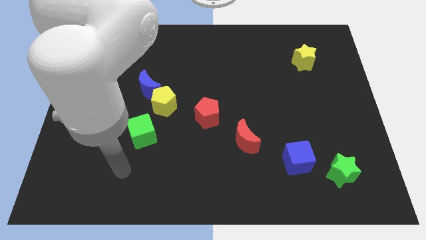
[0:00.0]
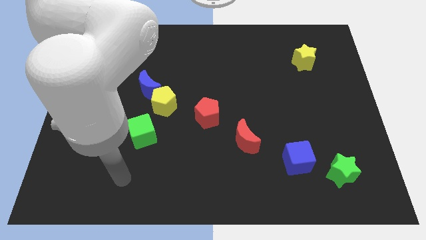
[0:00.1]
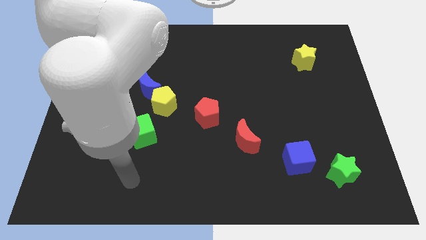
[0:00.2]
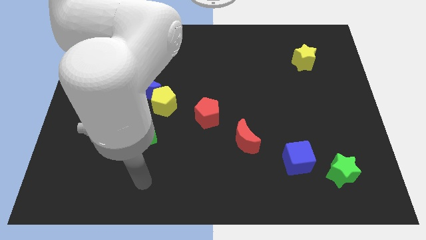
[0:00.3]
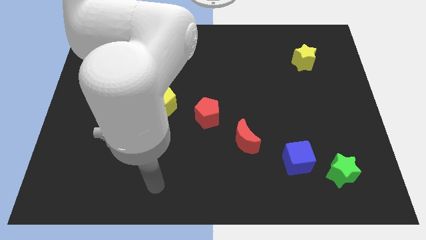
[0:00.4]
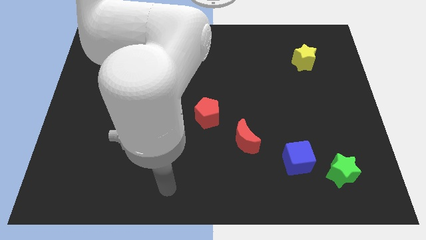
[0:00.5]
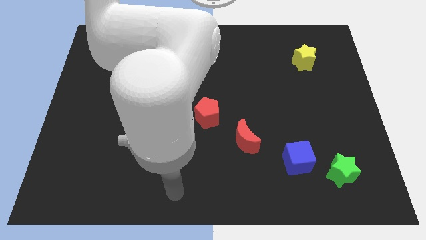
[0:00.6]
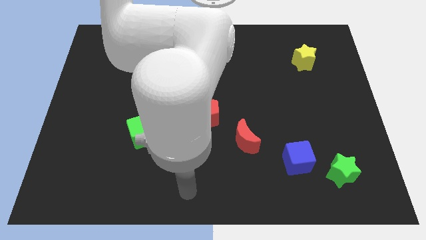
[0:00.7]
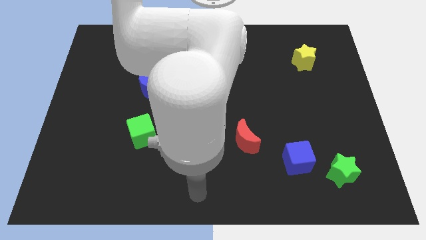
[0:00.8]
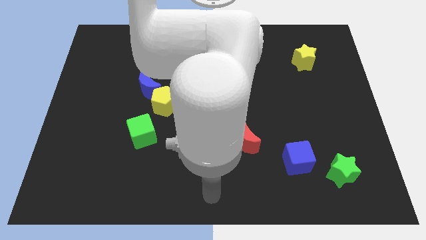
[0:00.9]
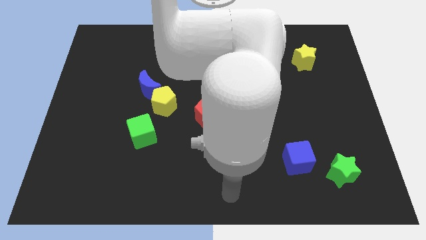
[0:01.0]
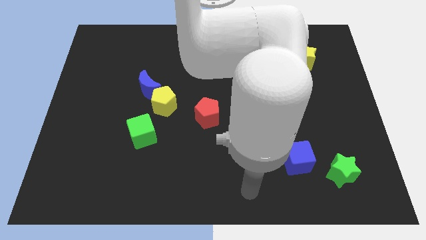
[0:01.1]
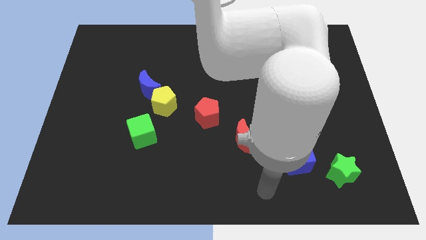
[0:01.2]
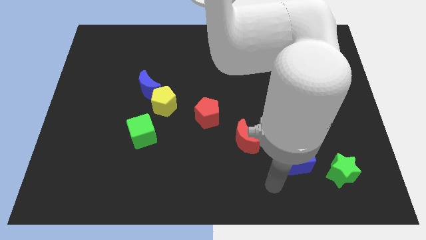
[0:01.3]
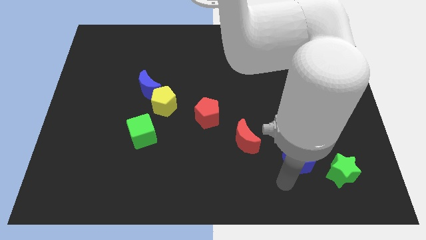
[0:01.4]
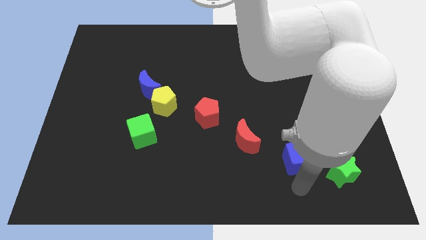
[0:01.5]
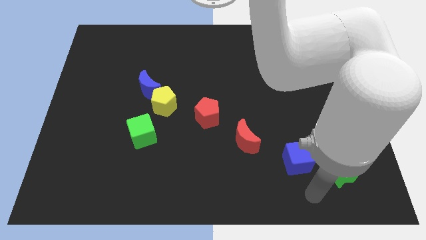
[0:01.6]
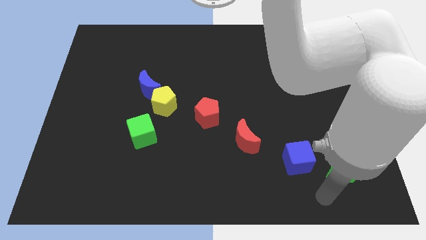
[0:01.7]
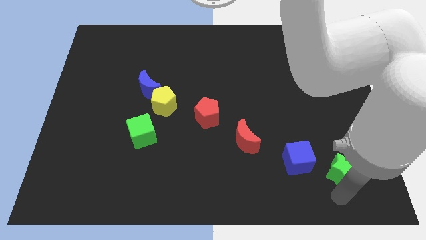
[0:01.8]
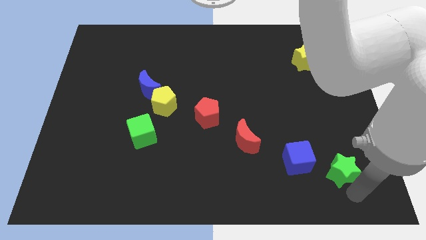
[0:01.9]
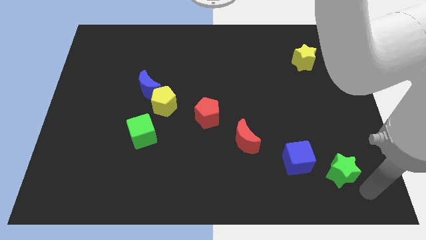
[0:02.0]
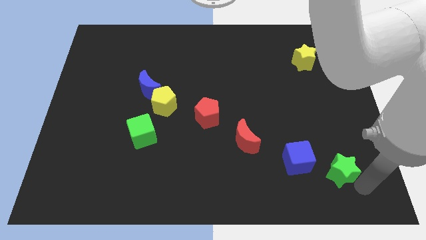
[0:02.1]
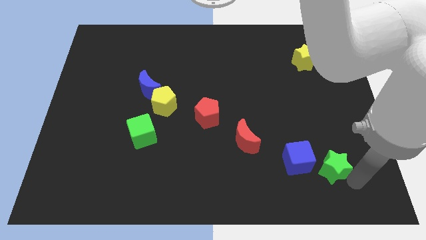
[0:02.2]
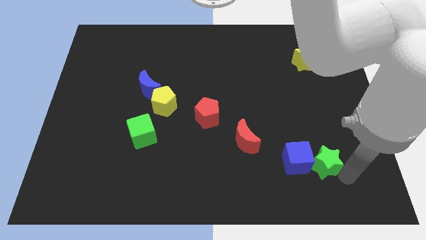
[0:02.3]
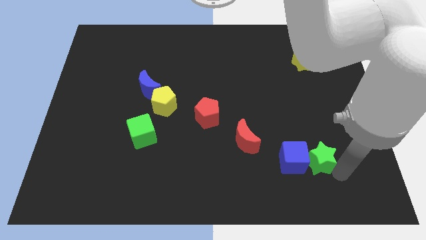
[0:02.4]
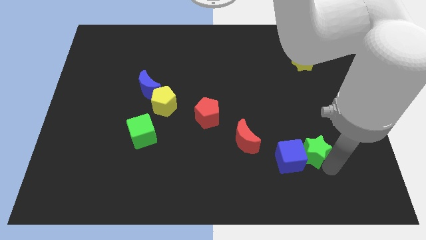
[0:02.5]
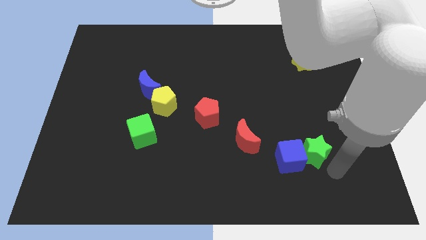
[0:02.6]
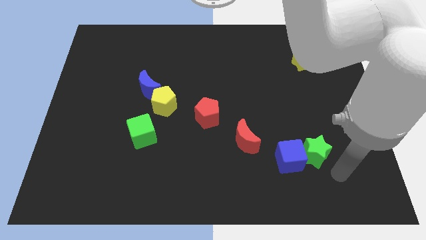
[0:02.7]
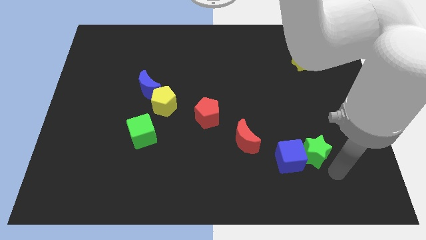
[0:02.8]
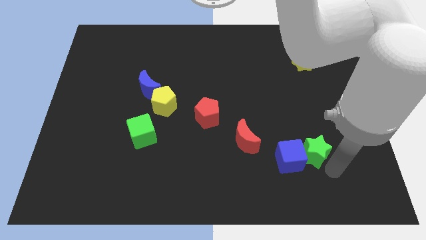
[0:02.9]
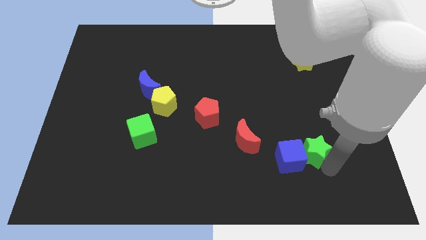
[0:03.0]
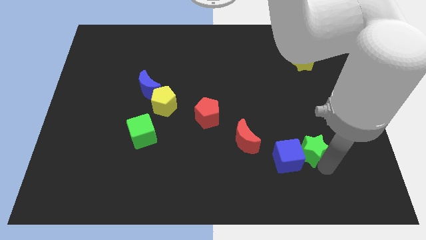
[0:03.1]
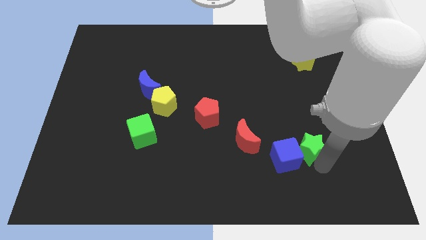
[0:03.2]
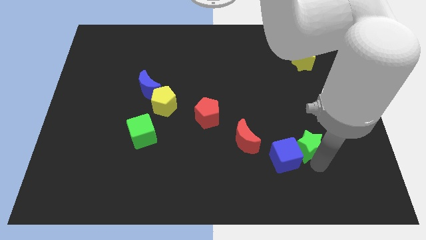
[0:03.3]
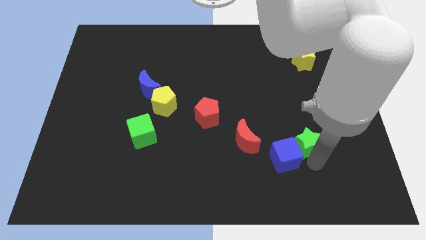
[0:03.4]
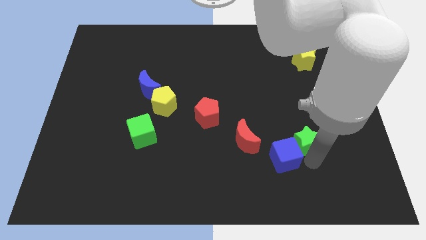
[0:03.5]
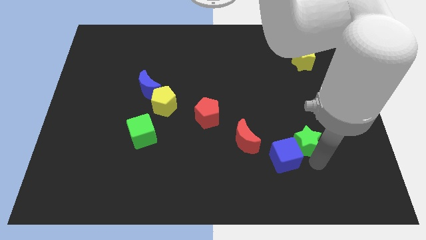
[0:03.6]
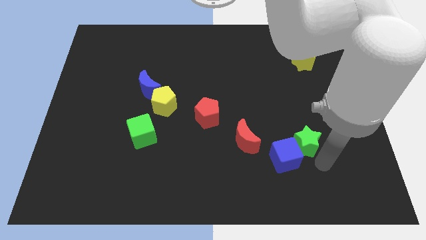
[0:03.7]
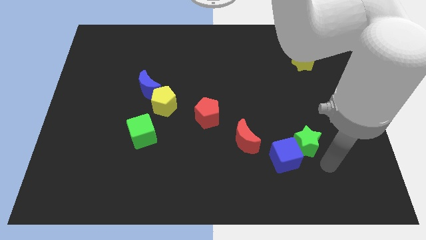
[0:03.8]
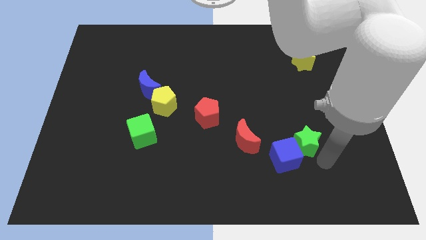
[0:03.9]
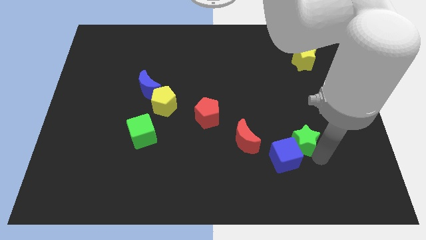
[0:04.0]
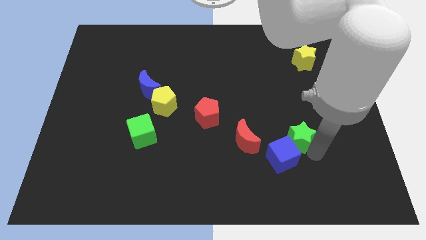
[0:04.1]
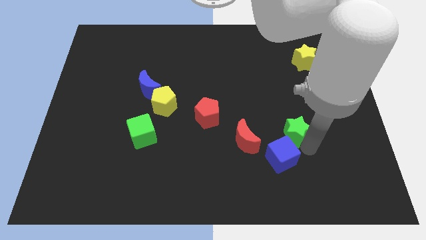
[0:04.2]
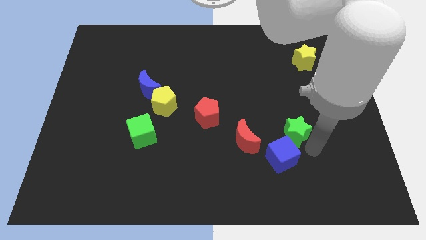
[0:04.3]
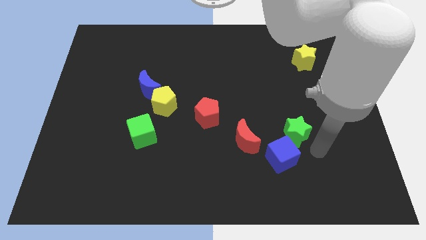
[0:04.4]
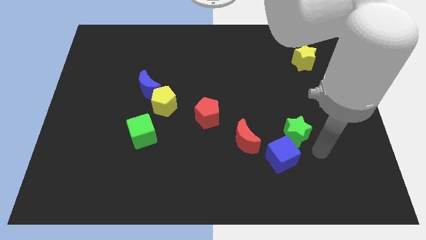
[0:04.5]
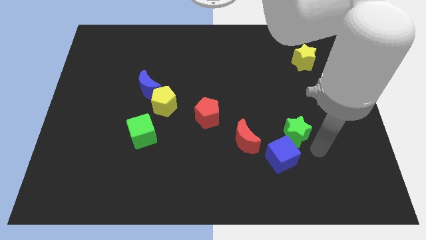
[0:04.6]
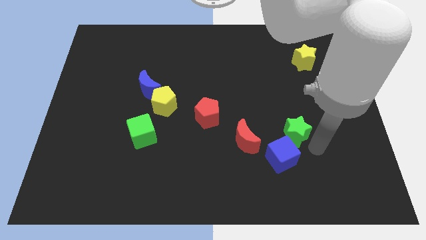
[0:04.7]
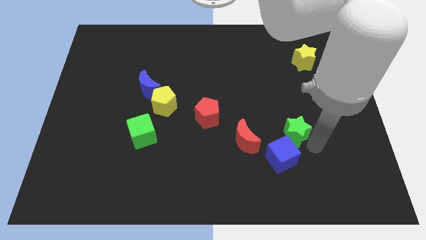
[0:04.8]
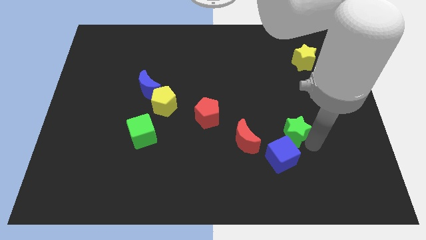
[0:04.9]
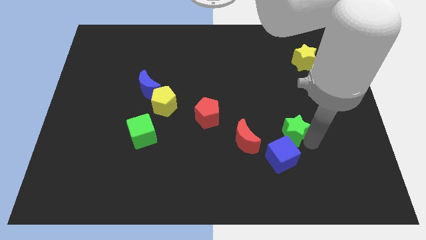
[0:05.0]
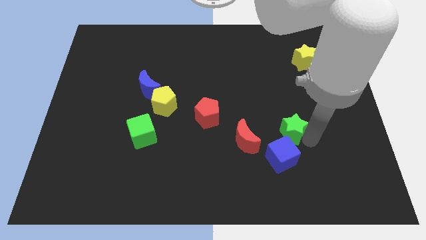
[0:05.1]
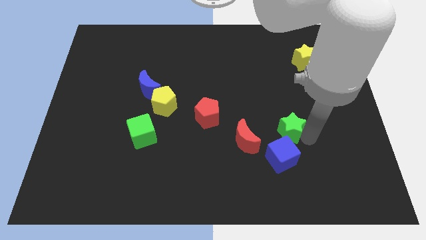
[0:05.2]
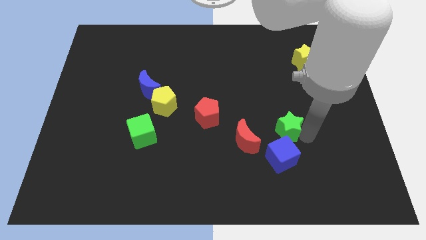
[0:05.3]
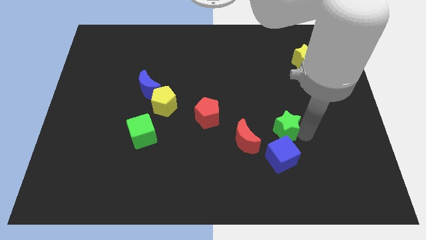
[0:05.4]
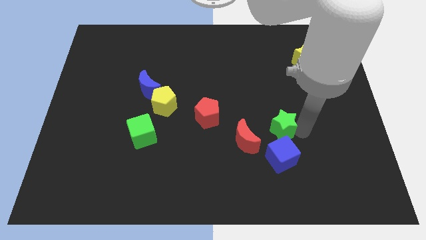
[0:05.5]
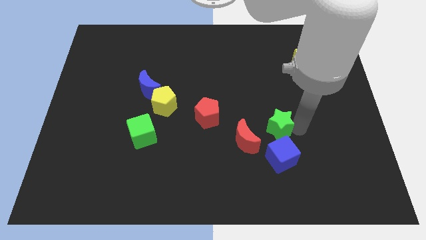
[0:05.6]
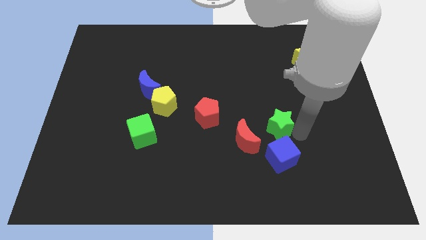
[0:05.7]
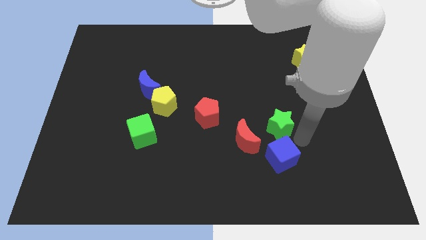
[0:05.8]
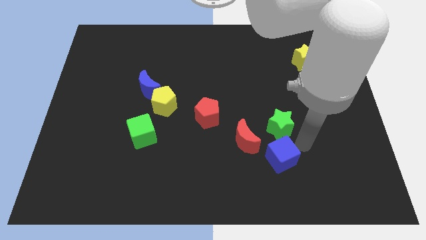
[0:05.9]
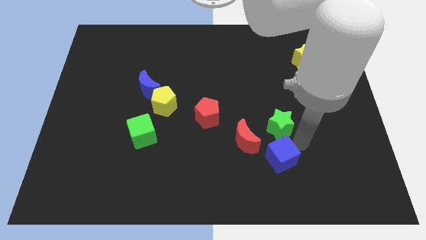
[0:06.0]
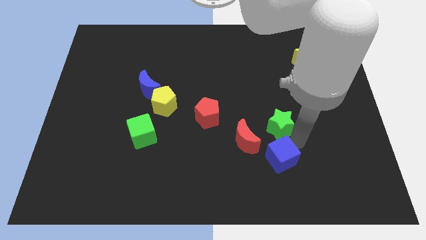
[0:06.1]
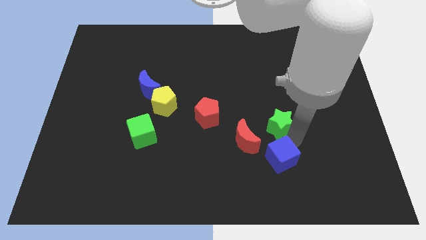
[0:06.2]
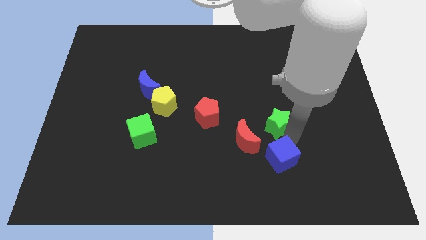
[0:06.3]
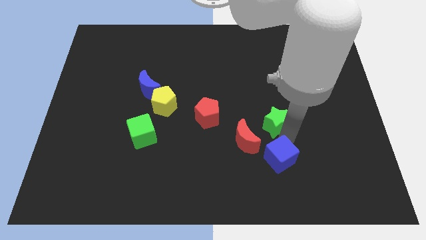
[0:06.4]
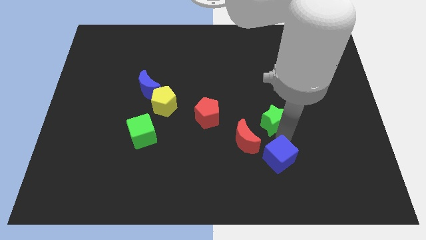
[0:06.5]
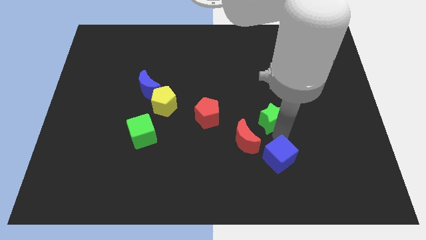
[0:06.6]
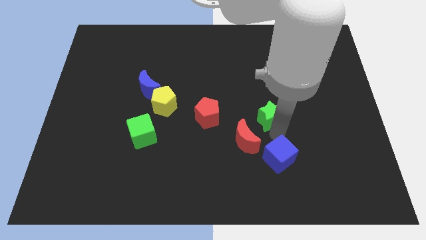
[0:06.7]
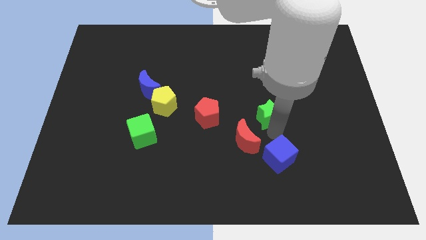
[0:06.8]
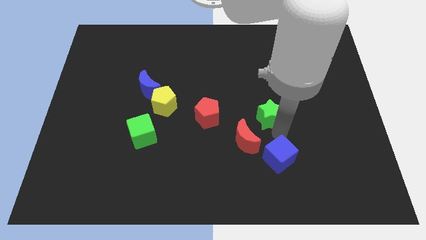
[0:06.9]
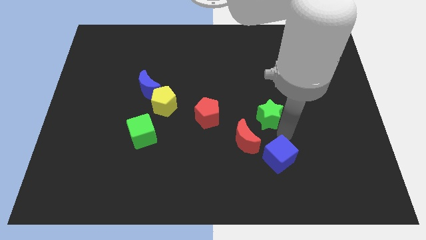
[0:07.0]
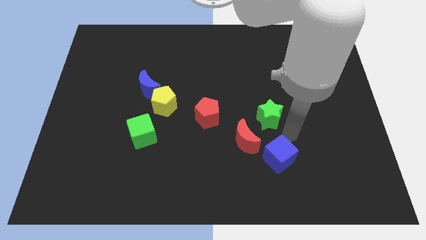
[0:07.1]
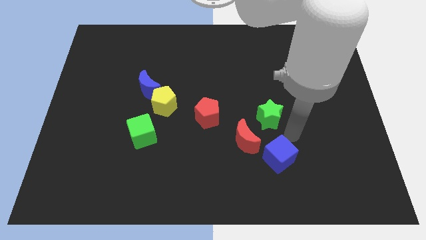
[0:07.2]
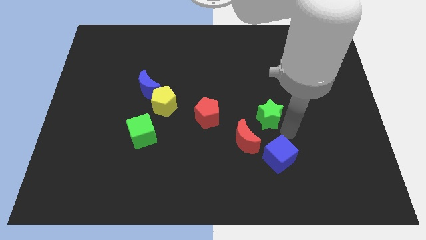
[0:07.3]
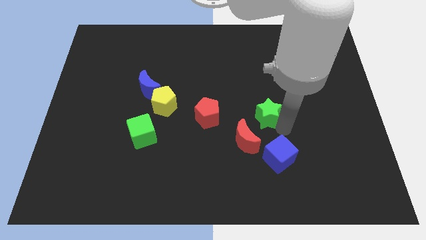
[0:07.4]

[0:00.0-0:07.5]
slide the green star diagonally upwards and left

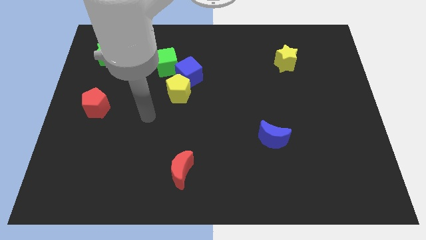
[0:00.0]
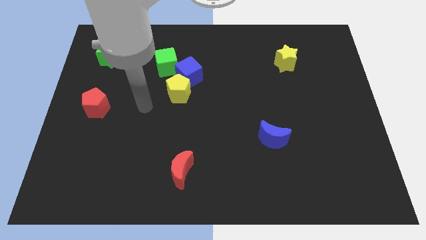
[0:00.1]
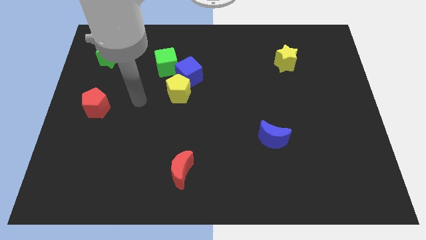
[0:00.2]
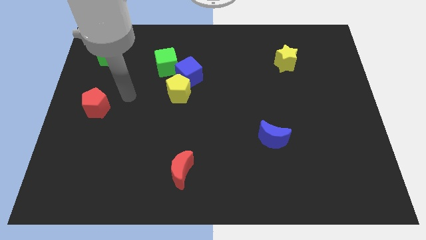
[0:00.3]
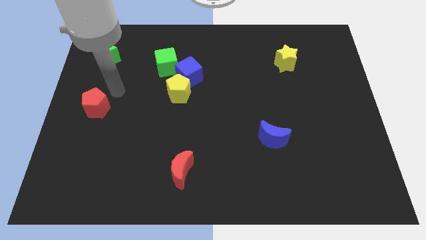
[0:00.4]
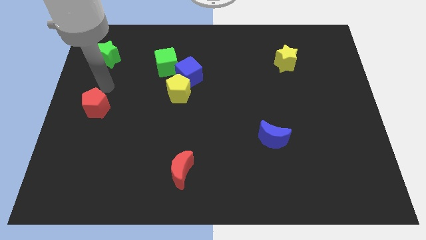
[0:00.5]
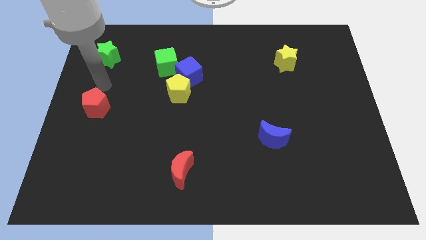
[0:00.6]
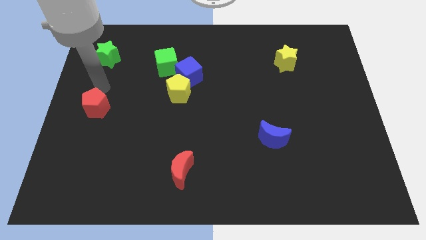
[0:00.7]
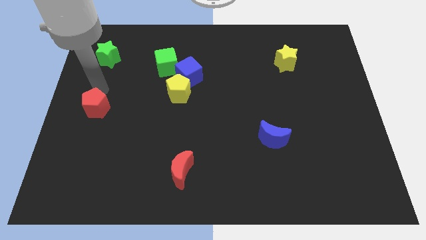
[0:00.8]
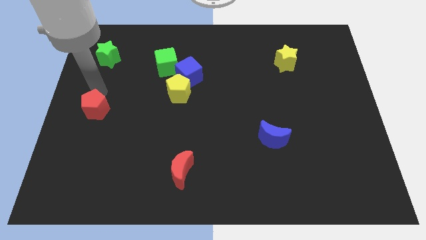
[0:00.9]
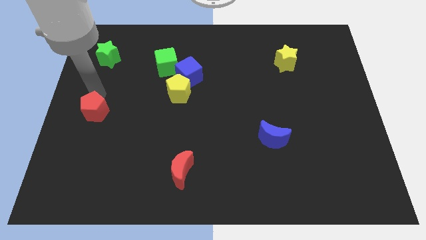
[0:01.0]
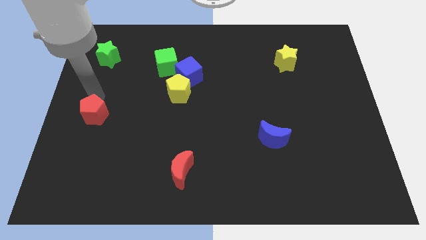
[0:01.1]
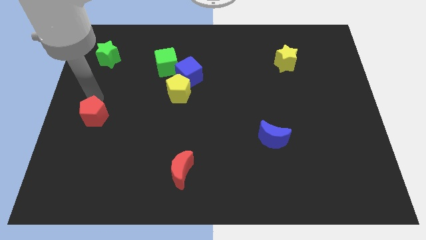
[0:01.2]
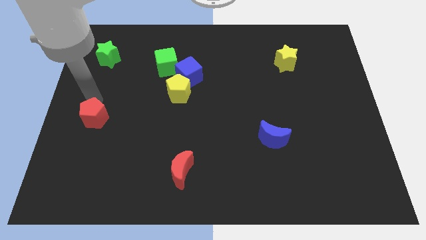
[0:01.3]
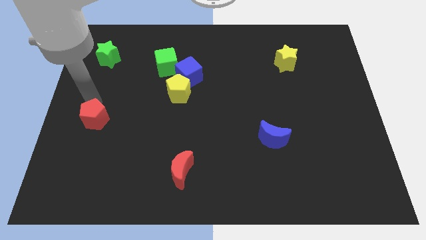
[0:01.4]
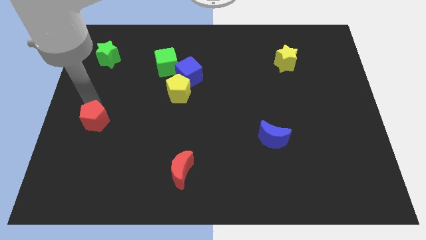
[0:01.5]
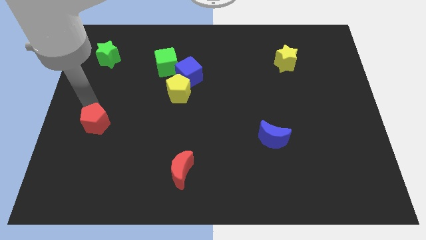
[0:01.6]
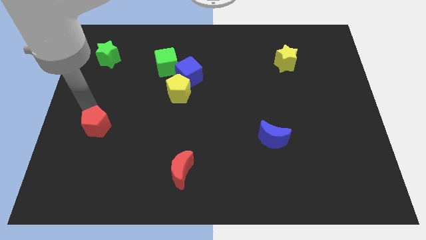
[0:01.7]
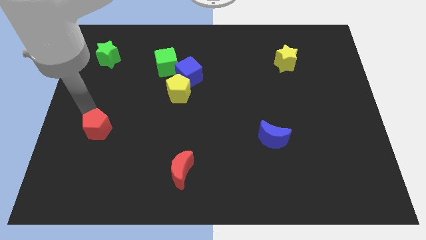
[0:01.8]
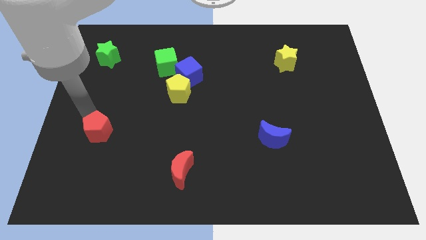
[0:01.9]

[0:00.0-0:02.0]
push the red pentagon downwards a bit
